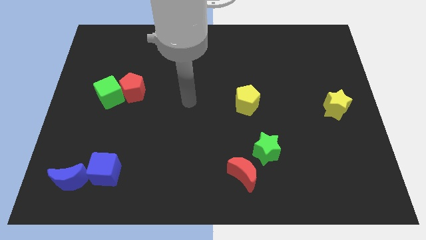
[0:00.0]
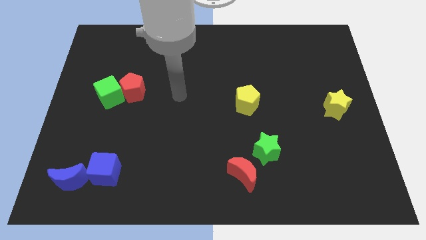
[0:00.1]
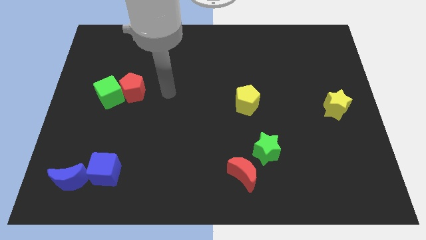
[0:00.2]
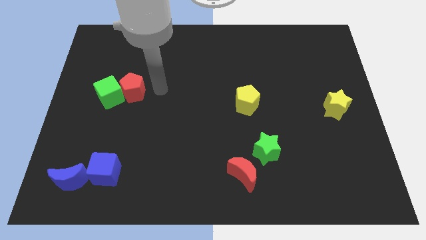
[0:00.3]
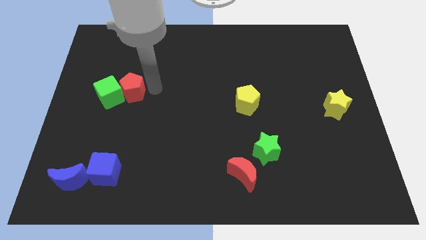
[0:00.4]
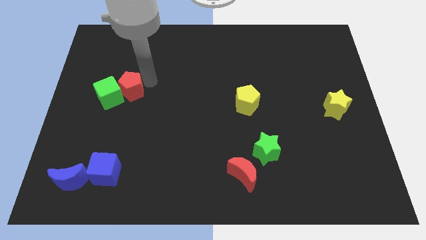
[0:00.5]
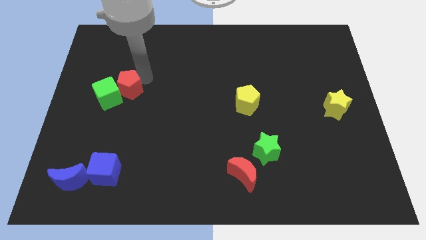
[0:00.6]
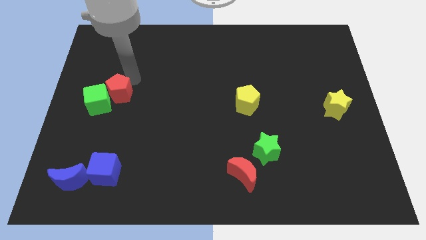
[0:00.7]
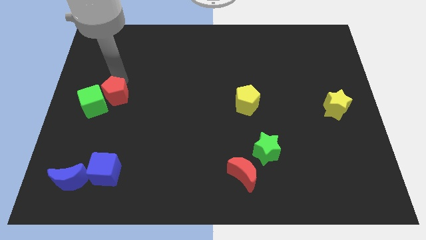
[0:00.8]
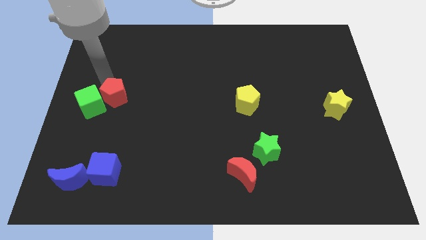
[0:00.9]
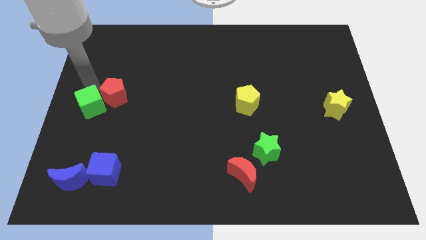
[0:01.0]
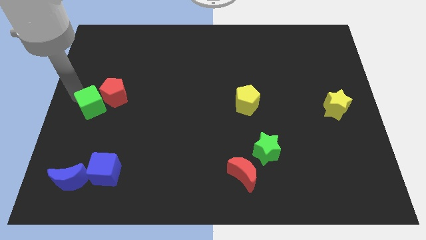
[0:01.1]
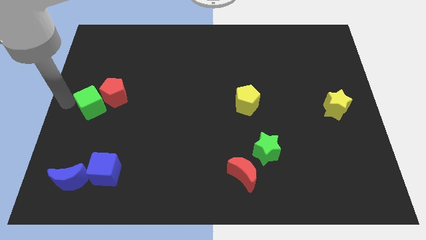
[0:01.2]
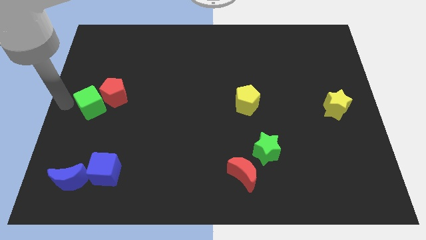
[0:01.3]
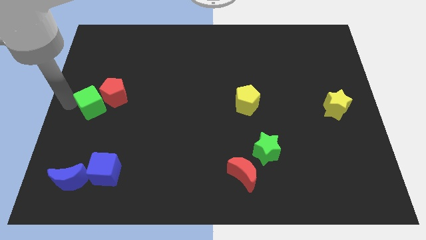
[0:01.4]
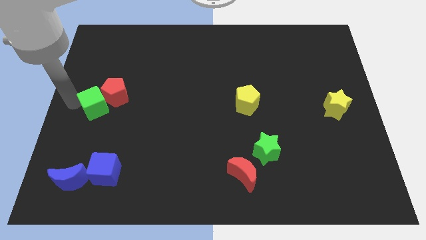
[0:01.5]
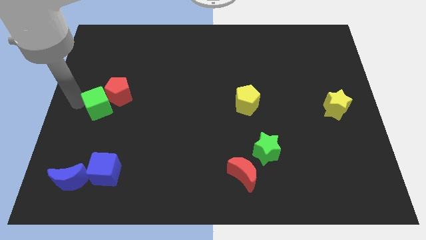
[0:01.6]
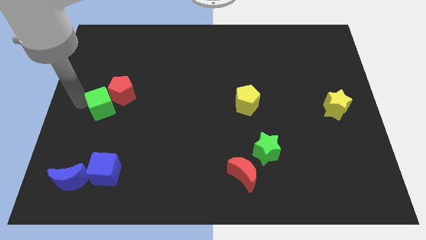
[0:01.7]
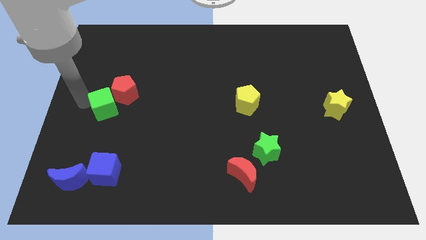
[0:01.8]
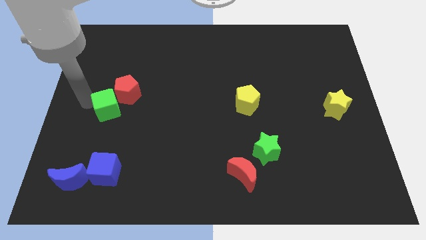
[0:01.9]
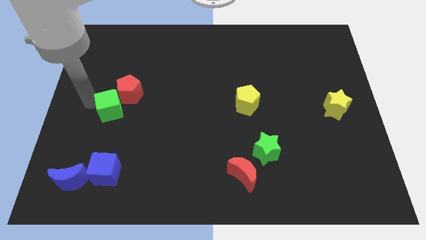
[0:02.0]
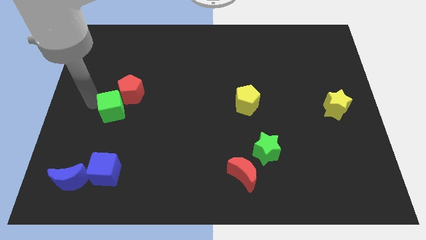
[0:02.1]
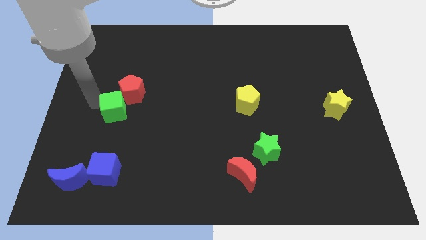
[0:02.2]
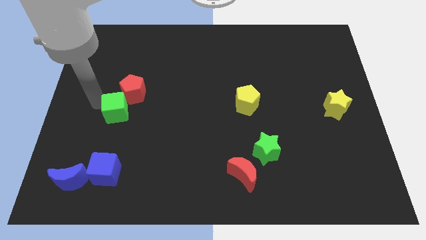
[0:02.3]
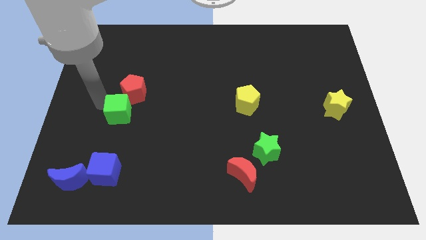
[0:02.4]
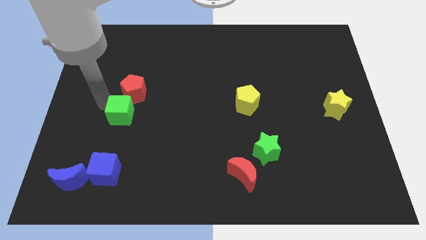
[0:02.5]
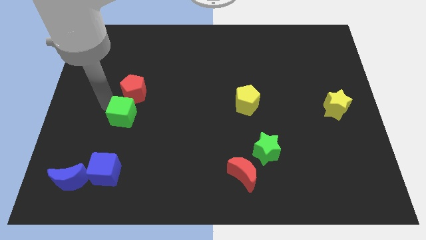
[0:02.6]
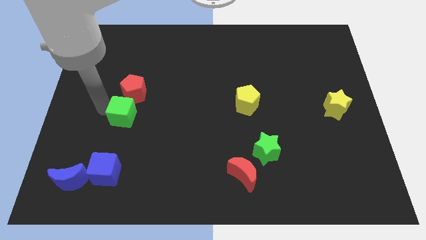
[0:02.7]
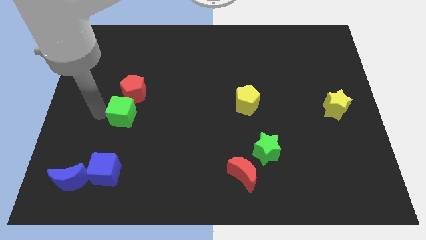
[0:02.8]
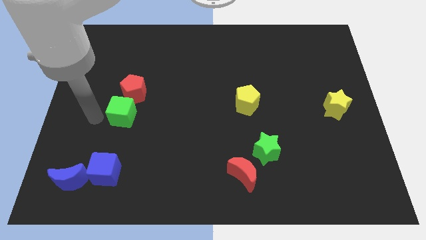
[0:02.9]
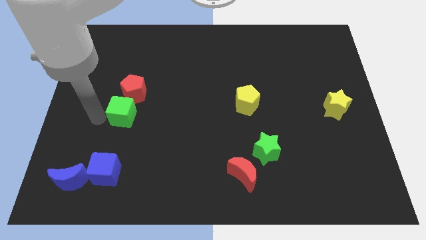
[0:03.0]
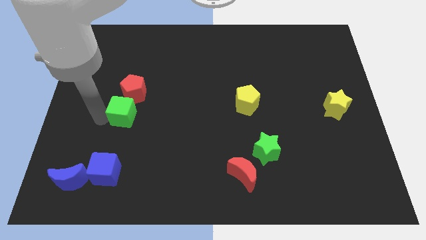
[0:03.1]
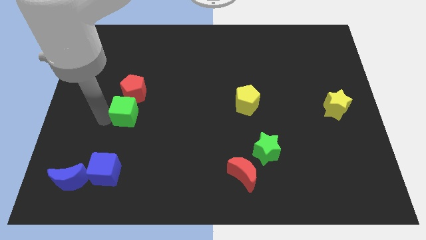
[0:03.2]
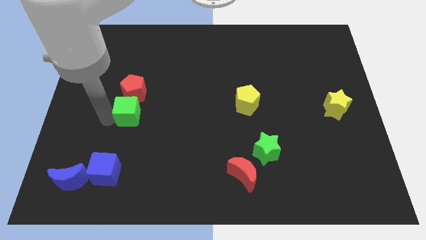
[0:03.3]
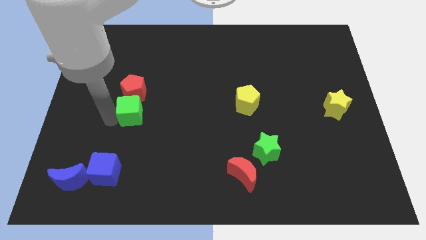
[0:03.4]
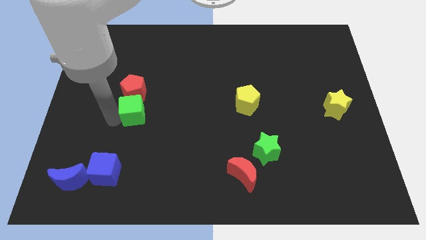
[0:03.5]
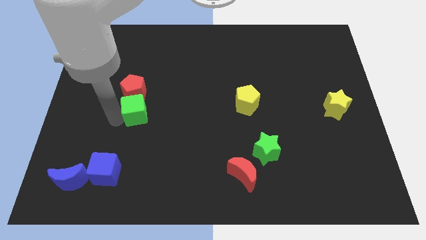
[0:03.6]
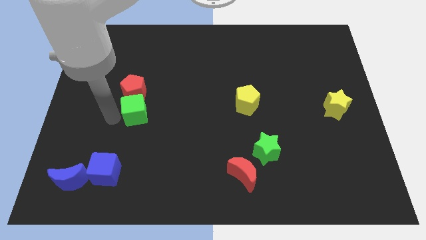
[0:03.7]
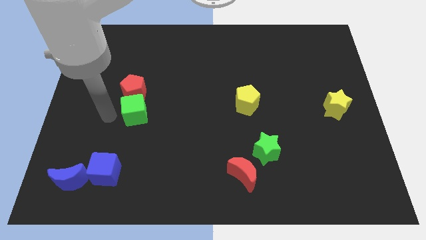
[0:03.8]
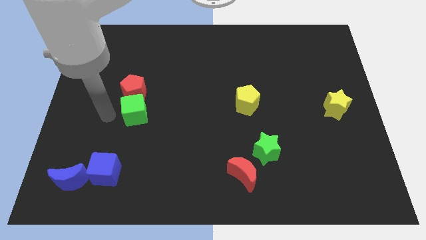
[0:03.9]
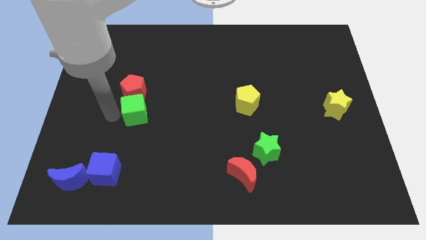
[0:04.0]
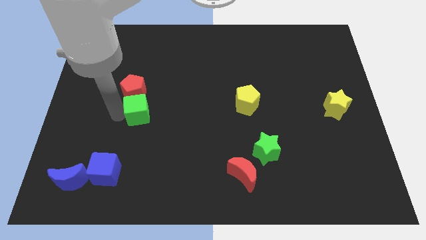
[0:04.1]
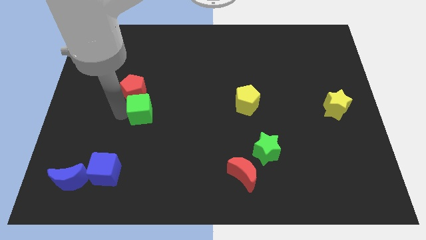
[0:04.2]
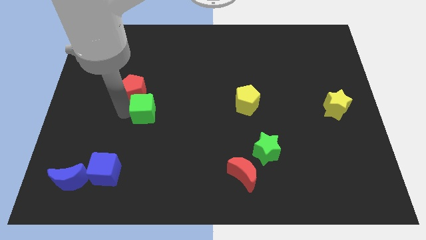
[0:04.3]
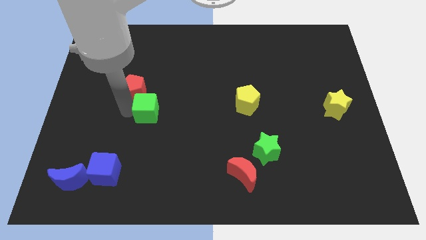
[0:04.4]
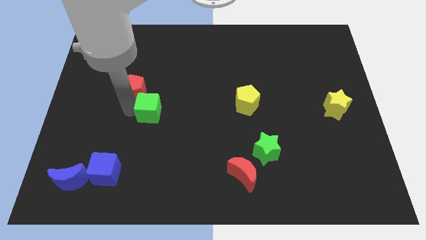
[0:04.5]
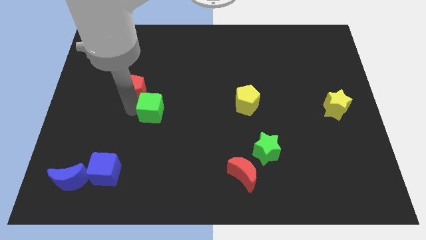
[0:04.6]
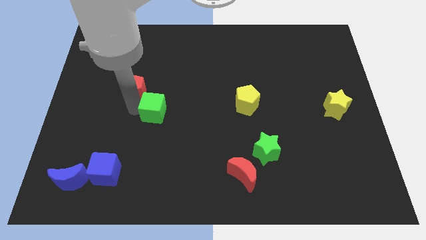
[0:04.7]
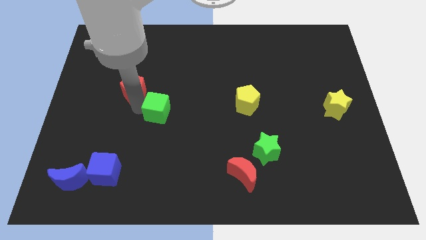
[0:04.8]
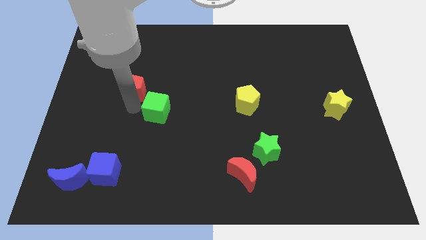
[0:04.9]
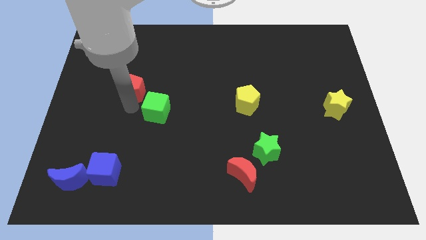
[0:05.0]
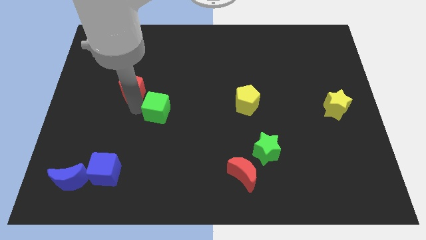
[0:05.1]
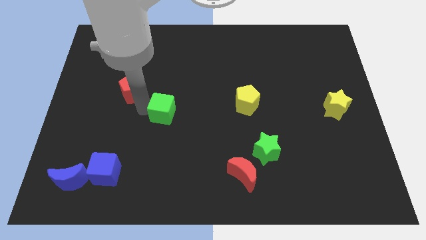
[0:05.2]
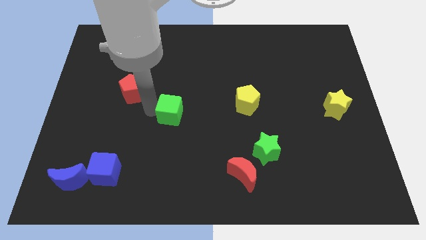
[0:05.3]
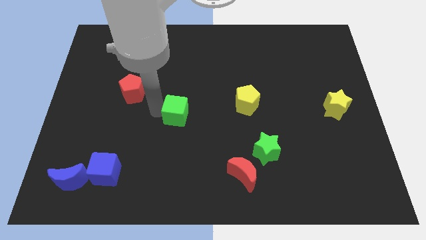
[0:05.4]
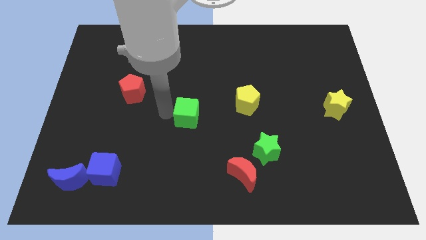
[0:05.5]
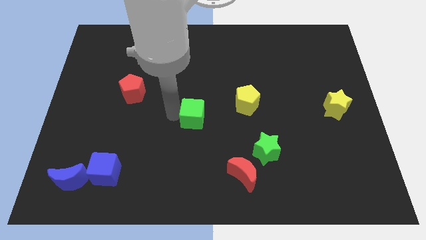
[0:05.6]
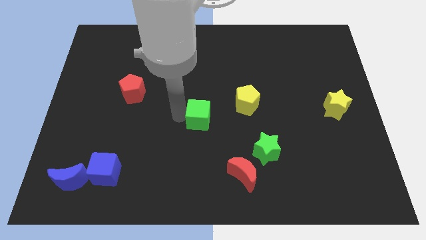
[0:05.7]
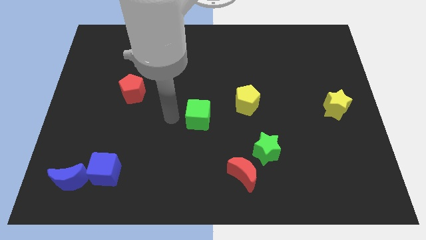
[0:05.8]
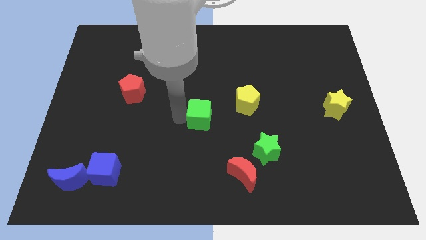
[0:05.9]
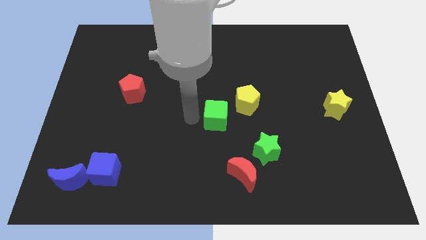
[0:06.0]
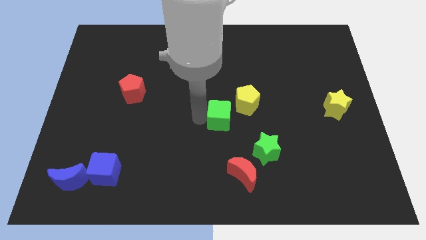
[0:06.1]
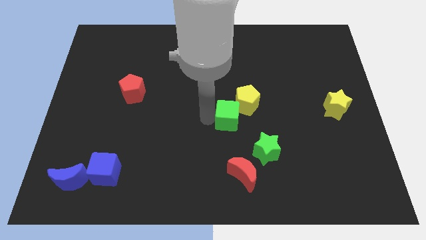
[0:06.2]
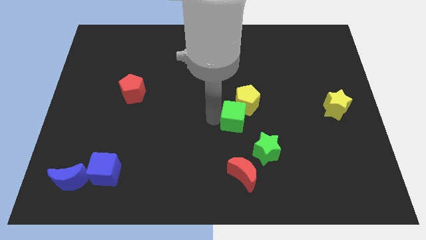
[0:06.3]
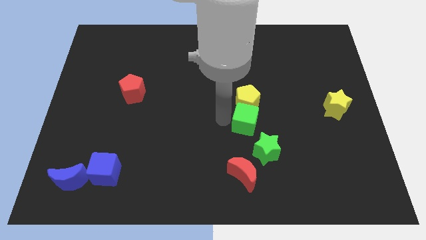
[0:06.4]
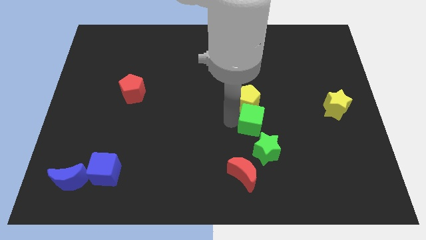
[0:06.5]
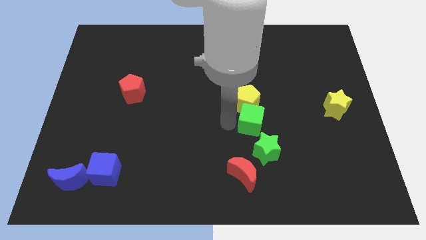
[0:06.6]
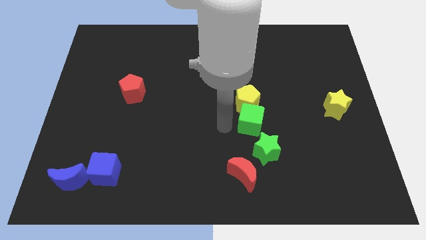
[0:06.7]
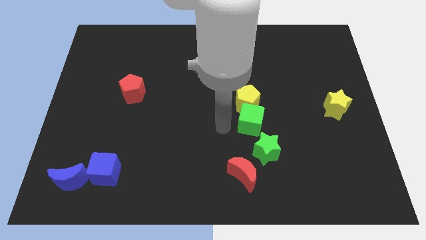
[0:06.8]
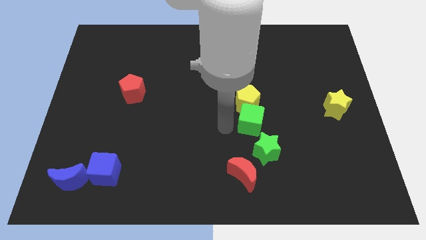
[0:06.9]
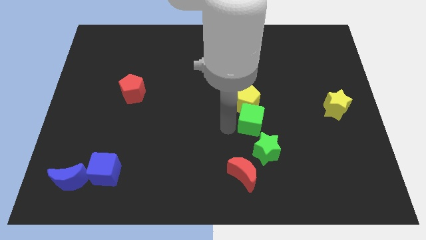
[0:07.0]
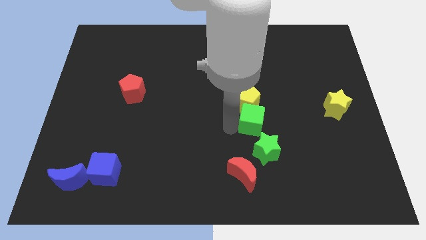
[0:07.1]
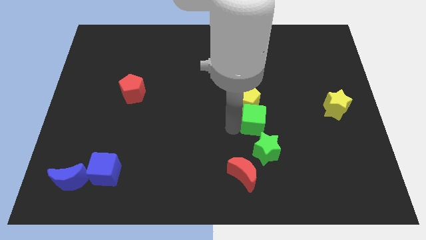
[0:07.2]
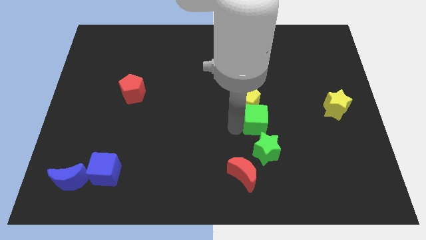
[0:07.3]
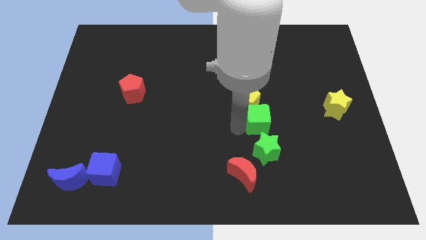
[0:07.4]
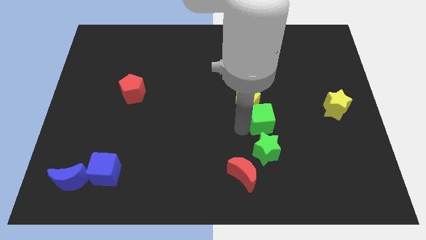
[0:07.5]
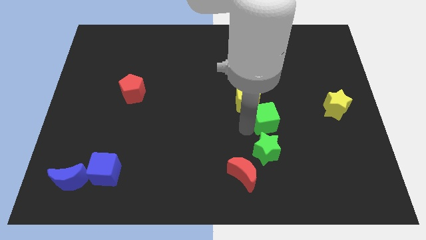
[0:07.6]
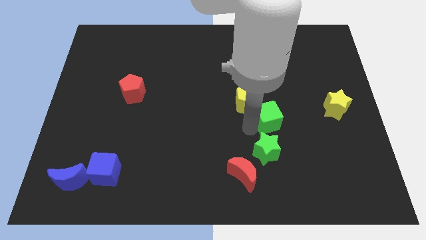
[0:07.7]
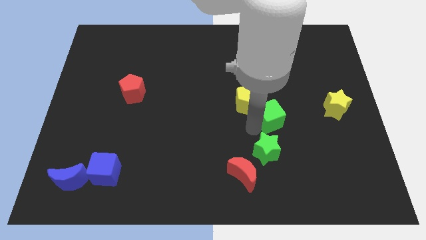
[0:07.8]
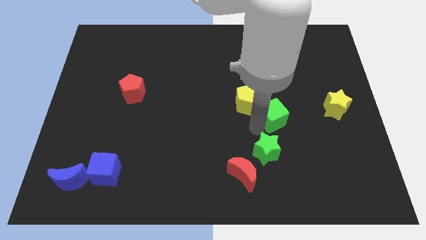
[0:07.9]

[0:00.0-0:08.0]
put the green cube to the left side of the yellow star
